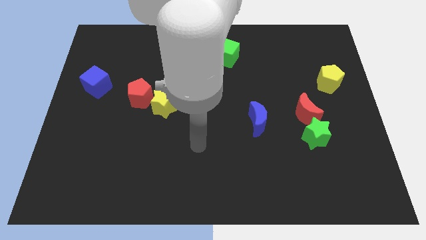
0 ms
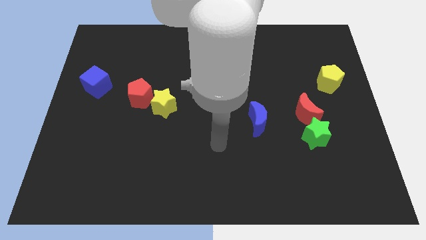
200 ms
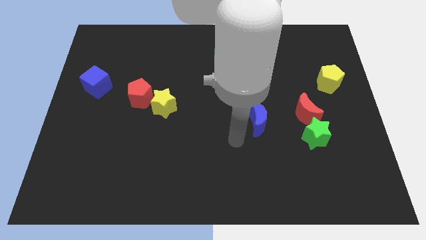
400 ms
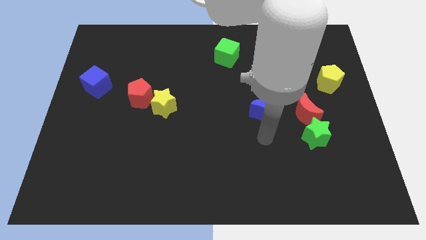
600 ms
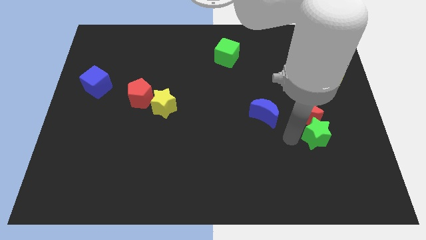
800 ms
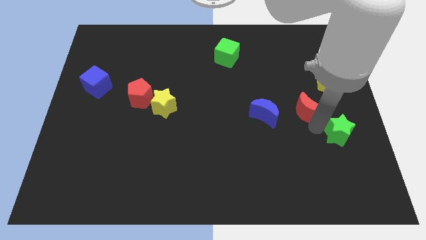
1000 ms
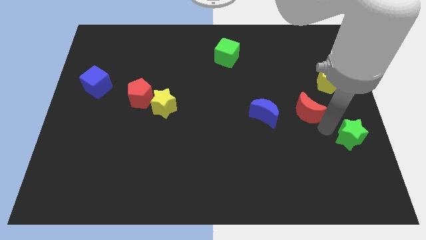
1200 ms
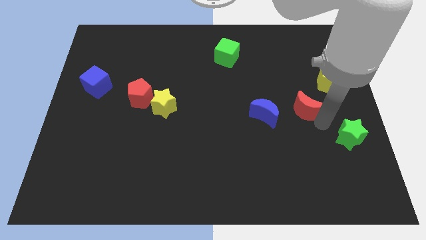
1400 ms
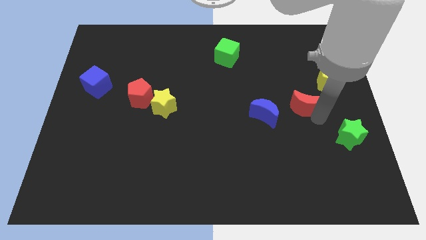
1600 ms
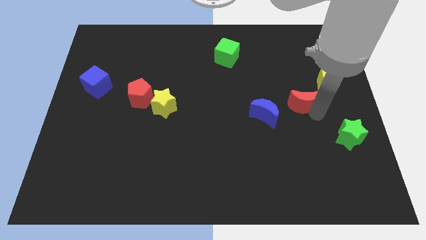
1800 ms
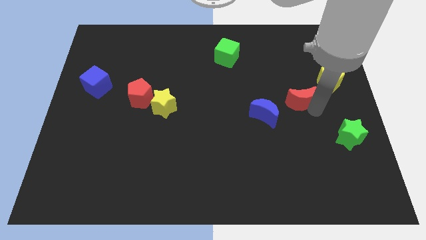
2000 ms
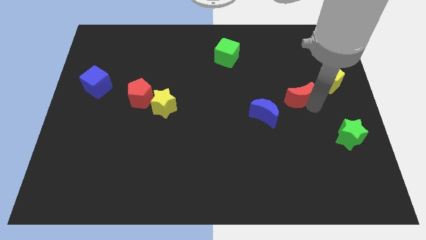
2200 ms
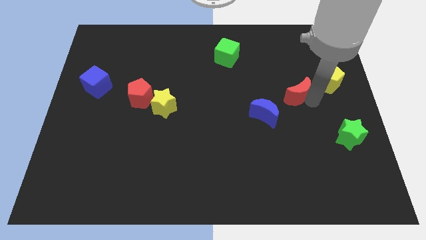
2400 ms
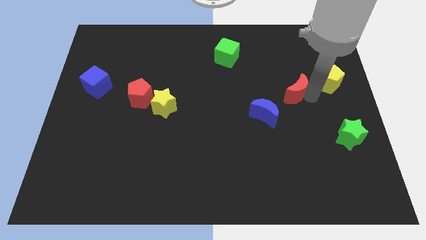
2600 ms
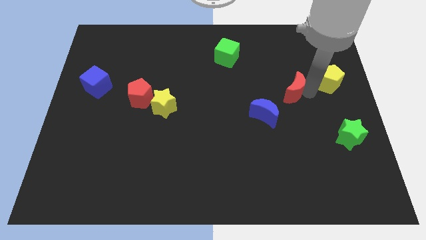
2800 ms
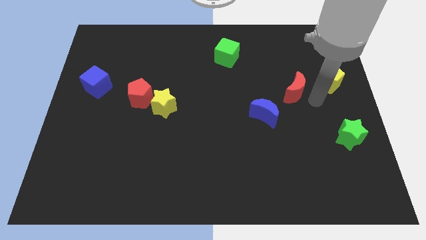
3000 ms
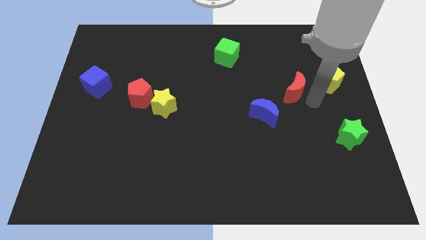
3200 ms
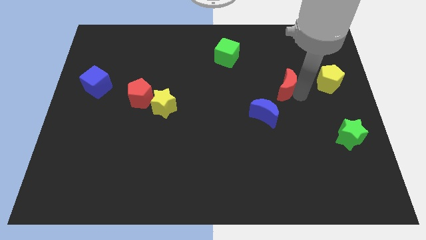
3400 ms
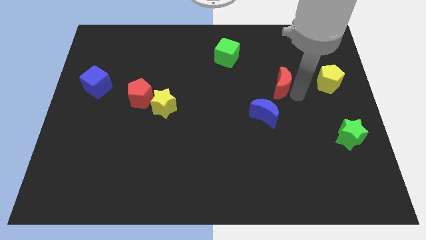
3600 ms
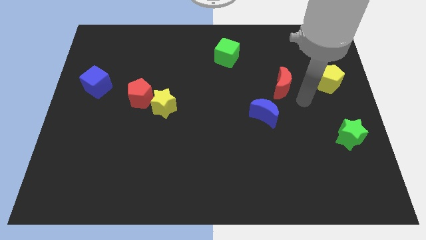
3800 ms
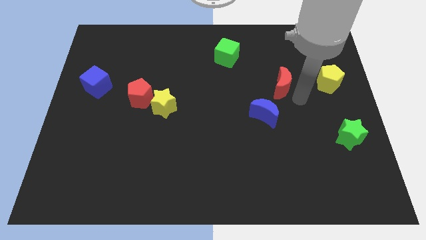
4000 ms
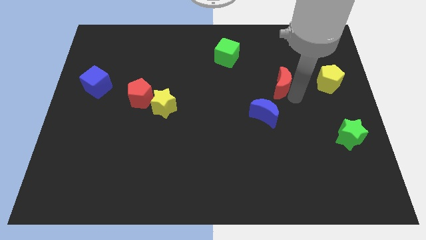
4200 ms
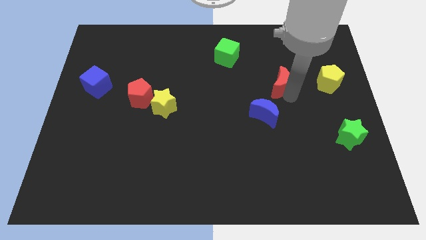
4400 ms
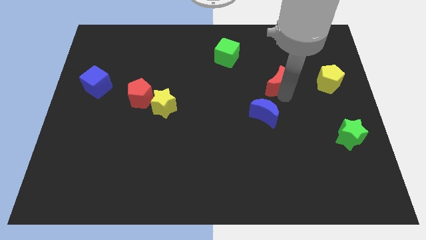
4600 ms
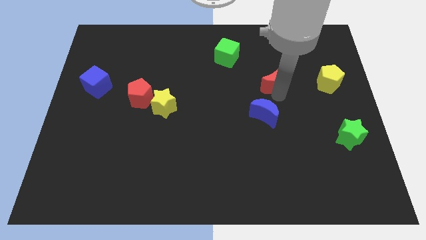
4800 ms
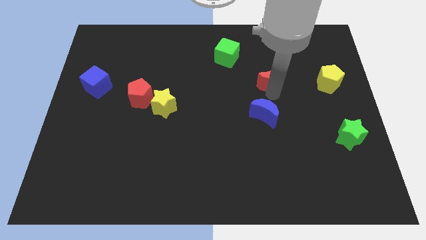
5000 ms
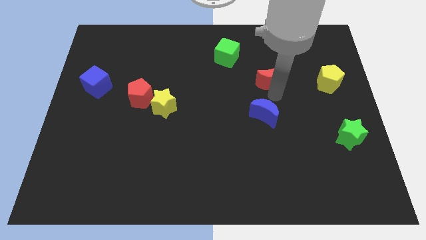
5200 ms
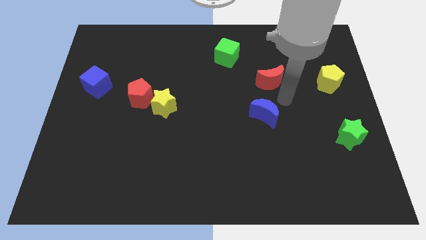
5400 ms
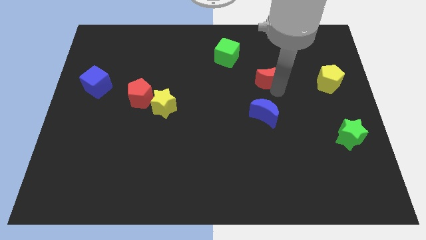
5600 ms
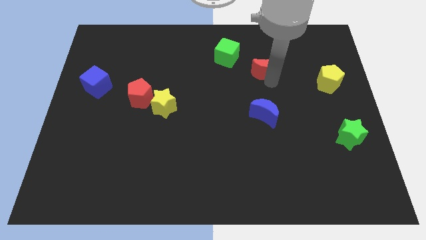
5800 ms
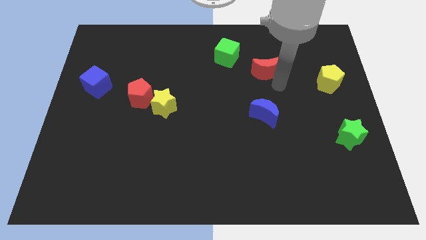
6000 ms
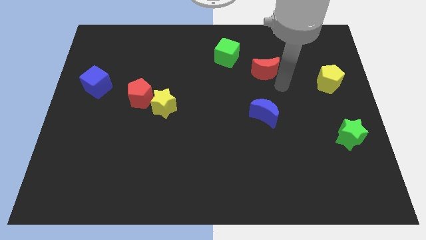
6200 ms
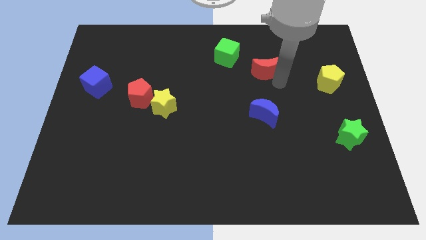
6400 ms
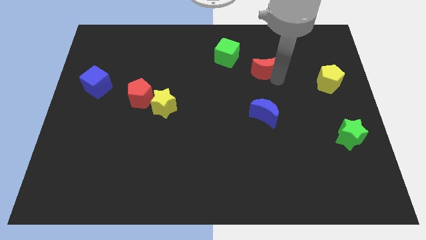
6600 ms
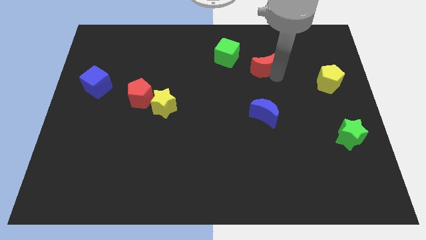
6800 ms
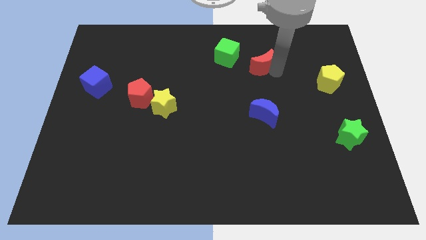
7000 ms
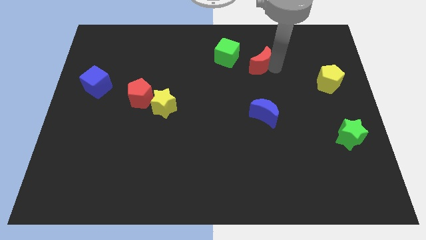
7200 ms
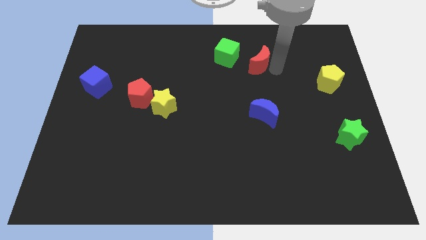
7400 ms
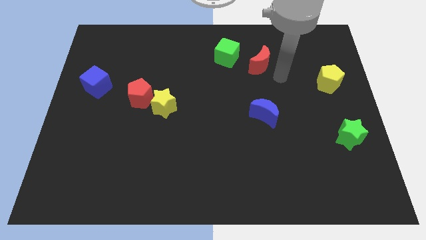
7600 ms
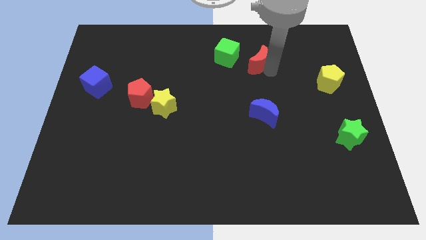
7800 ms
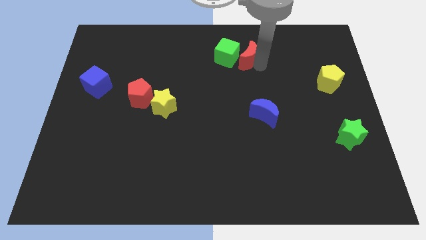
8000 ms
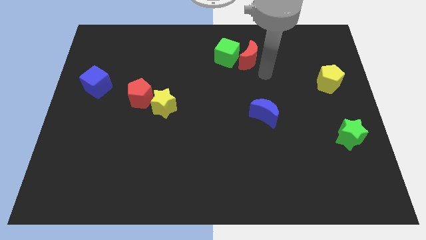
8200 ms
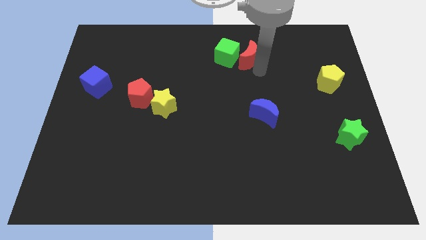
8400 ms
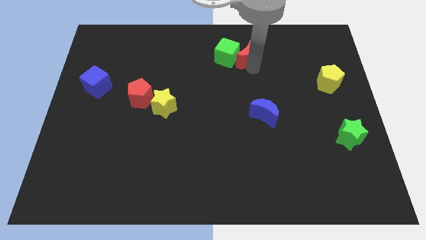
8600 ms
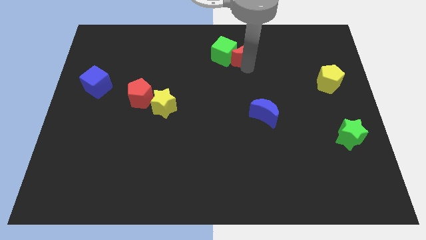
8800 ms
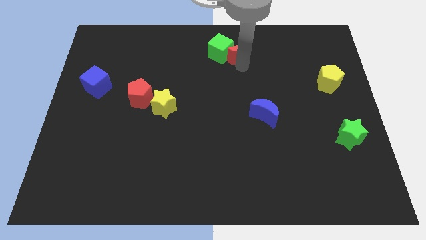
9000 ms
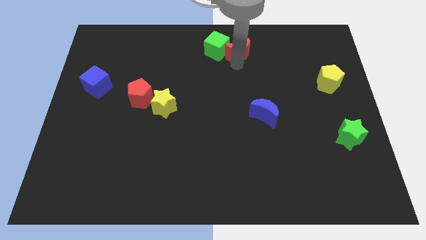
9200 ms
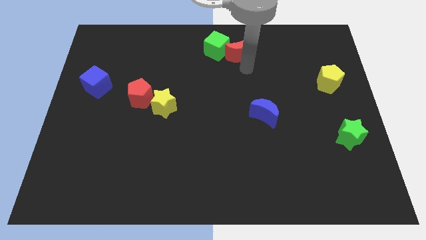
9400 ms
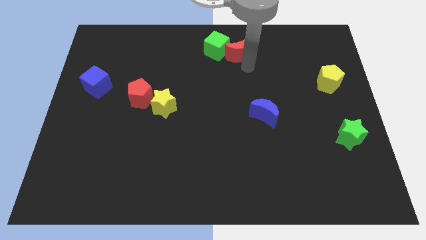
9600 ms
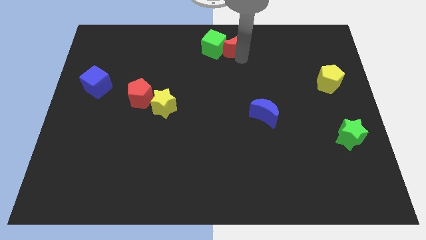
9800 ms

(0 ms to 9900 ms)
move the red moon to the top

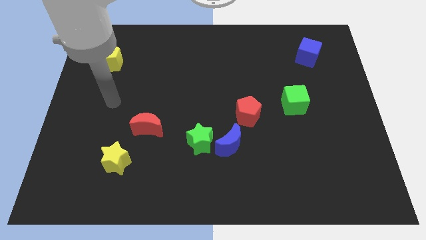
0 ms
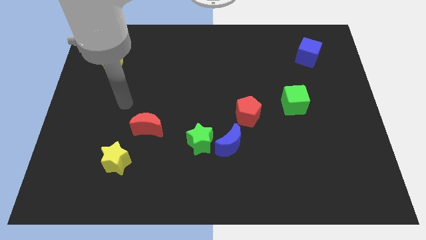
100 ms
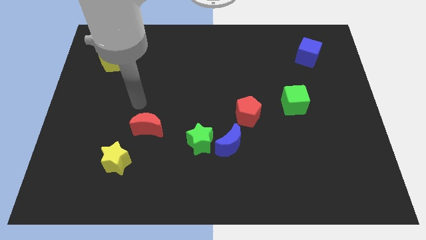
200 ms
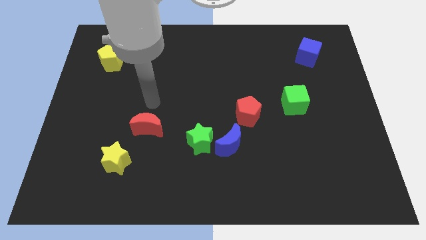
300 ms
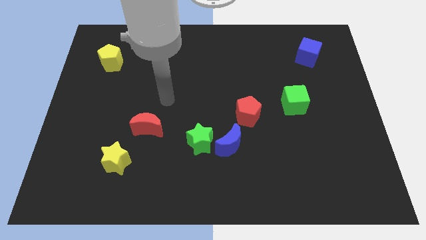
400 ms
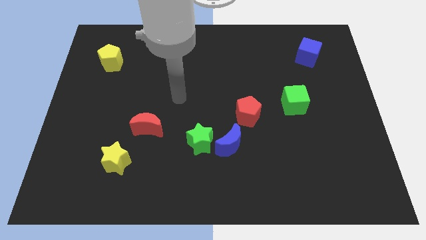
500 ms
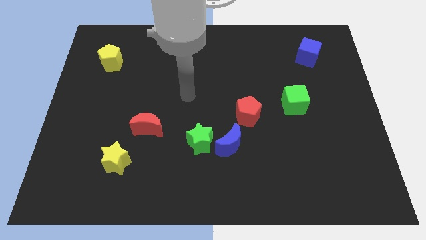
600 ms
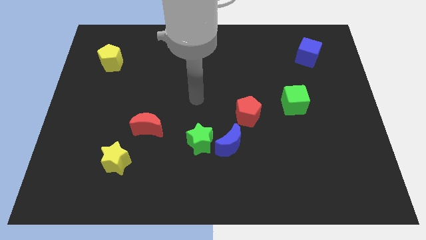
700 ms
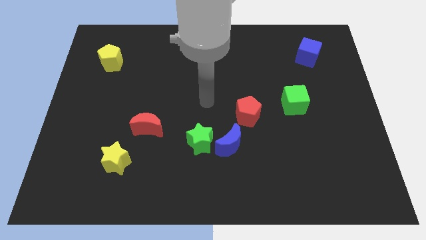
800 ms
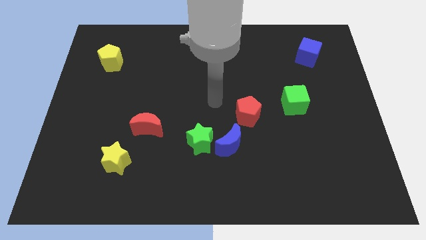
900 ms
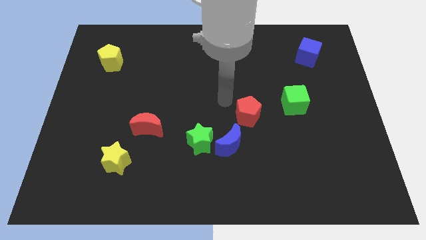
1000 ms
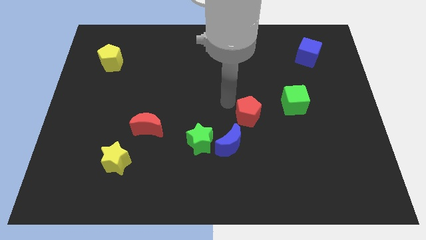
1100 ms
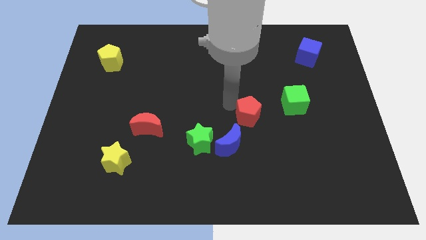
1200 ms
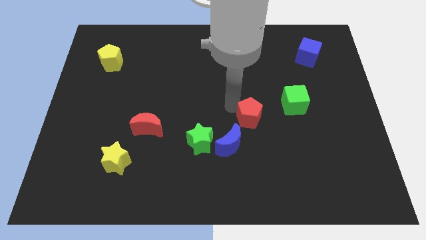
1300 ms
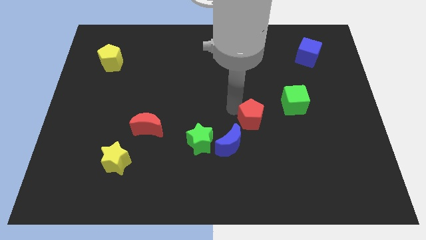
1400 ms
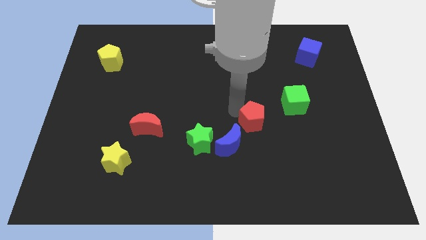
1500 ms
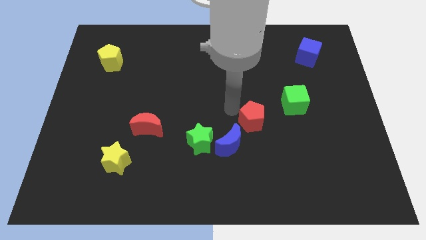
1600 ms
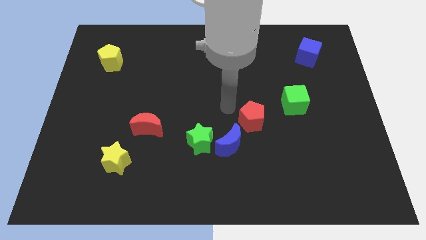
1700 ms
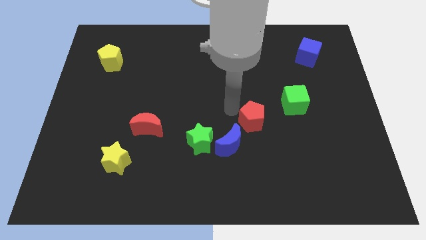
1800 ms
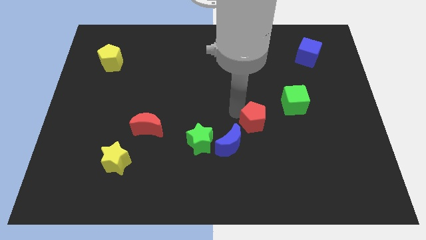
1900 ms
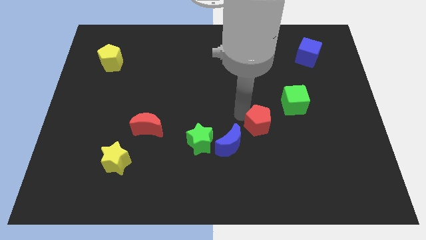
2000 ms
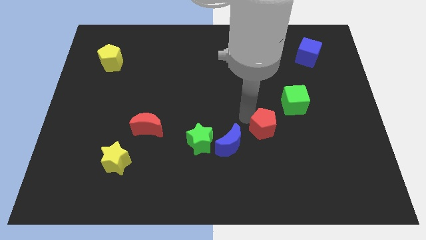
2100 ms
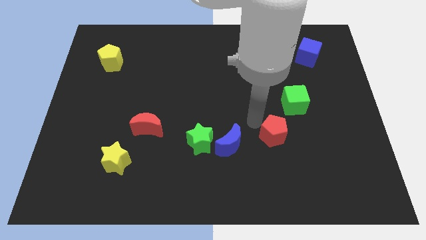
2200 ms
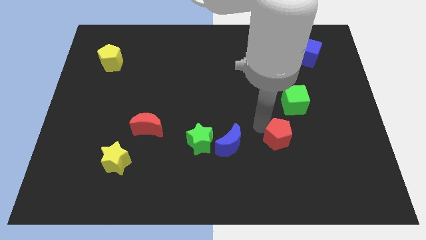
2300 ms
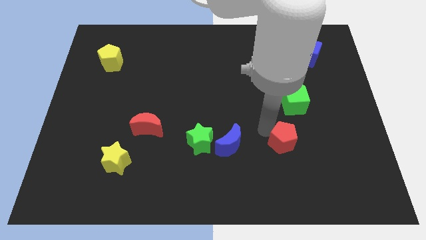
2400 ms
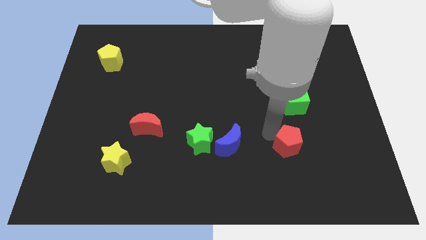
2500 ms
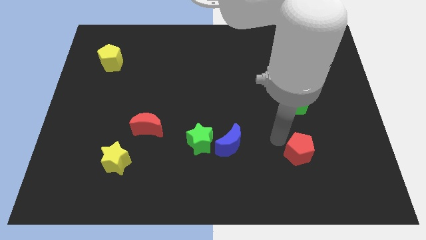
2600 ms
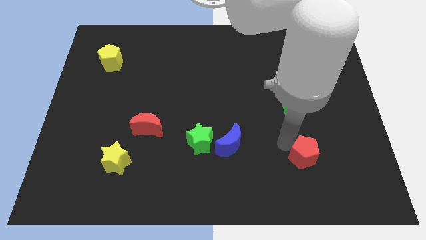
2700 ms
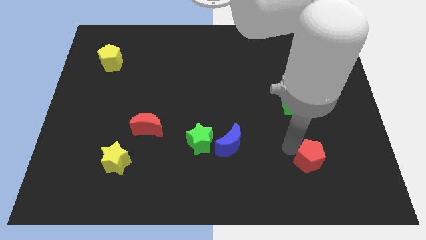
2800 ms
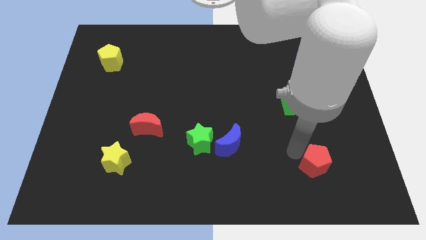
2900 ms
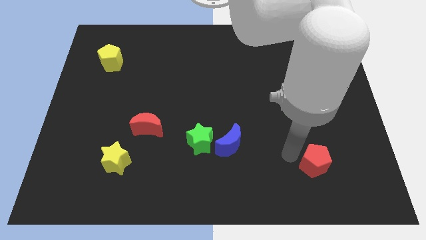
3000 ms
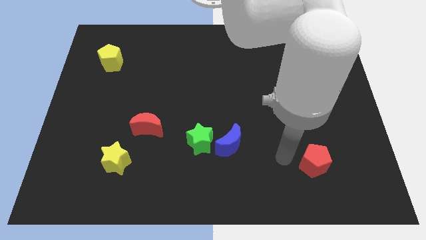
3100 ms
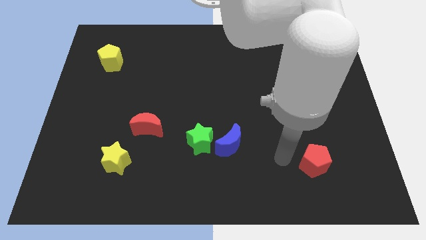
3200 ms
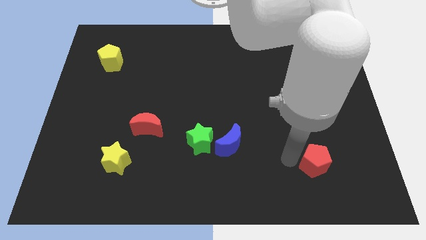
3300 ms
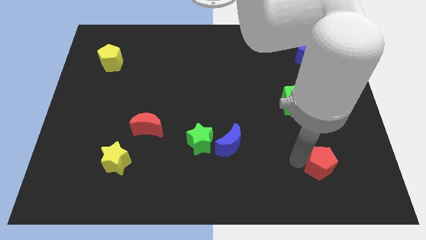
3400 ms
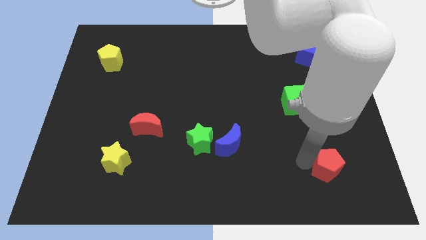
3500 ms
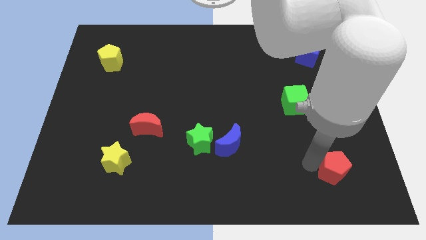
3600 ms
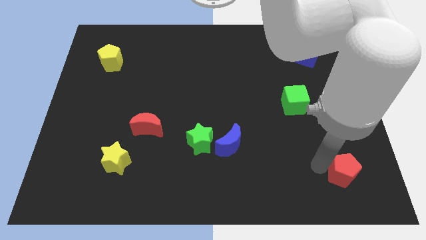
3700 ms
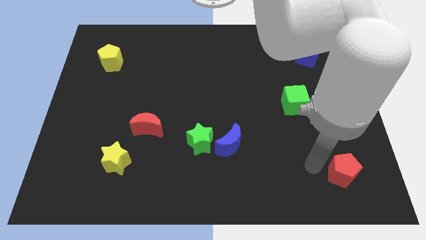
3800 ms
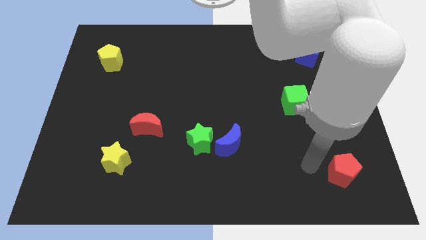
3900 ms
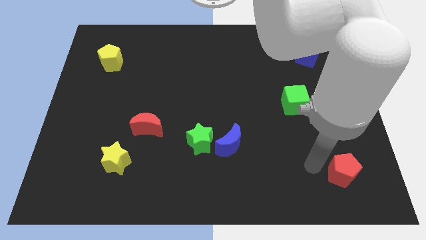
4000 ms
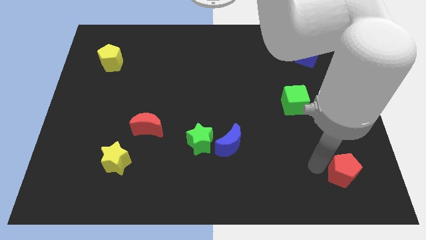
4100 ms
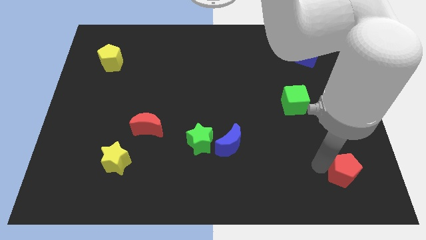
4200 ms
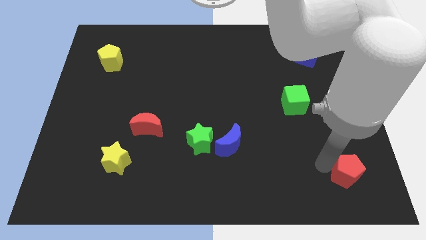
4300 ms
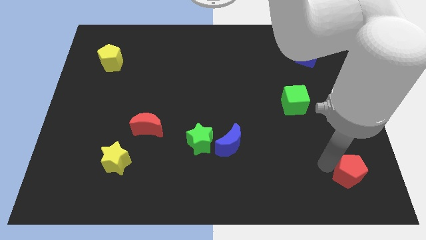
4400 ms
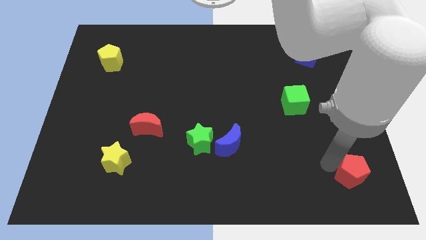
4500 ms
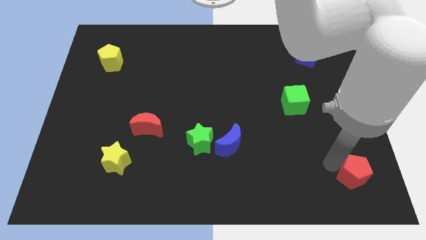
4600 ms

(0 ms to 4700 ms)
move the red pentagon to the lower right corner
